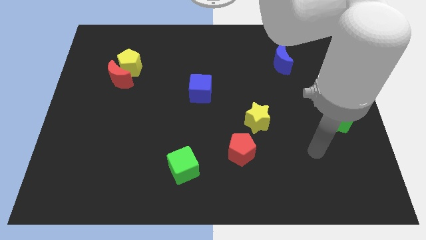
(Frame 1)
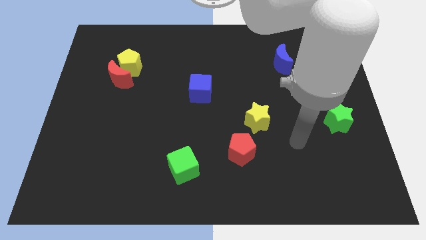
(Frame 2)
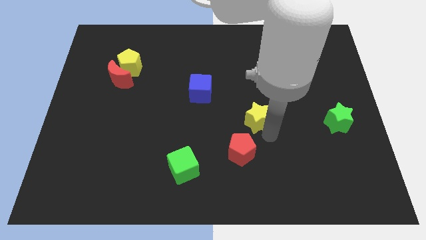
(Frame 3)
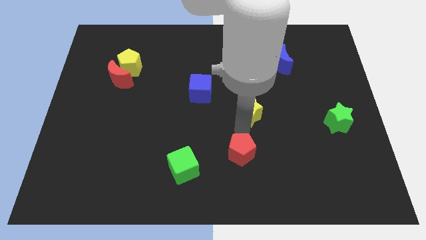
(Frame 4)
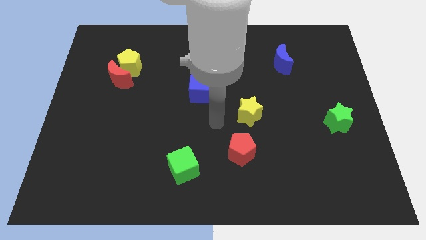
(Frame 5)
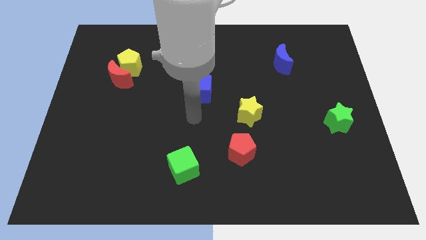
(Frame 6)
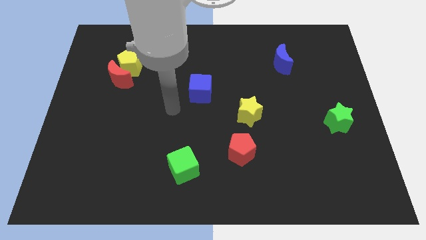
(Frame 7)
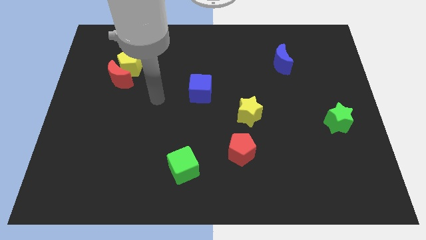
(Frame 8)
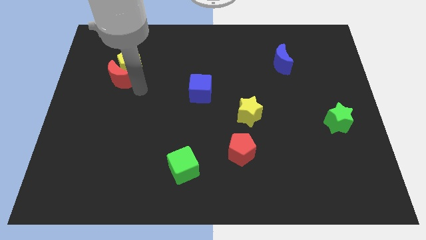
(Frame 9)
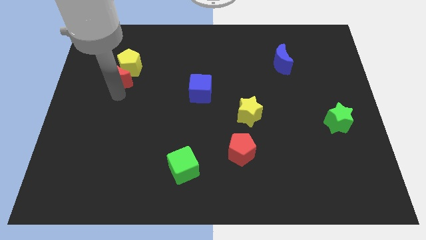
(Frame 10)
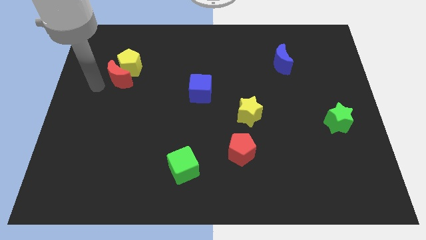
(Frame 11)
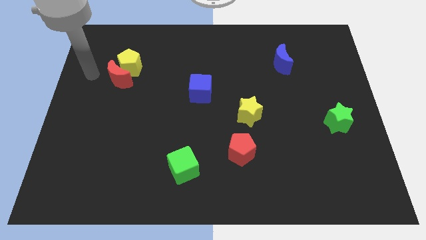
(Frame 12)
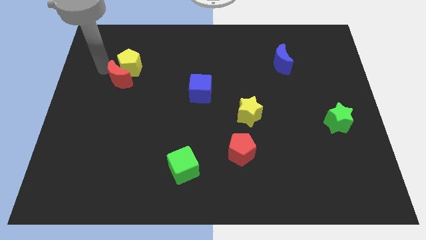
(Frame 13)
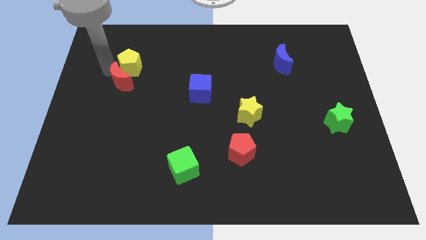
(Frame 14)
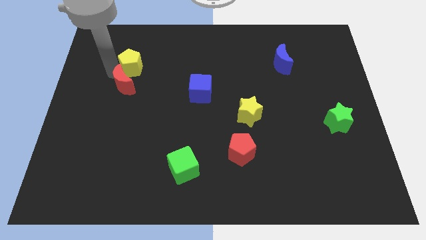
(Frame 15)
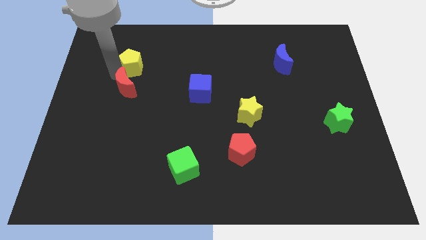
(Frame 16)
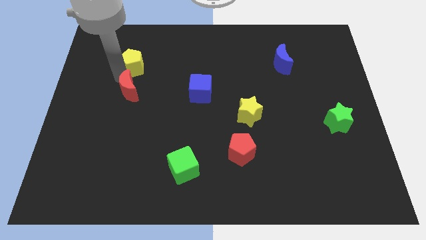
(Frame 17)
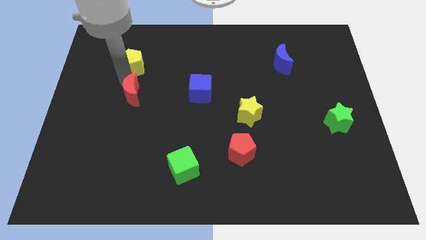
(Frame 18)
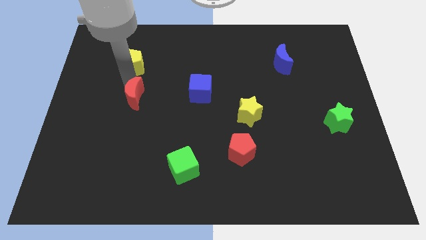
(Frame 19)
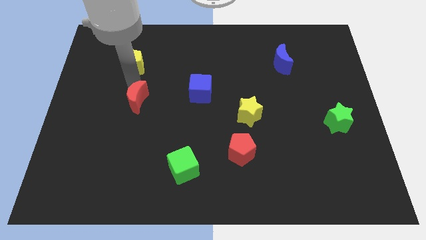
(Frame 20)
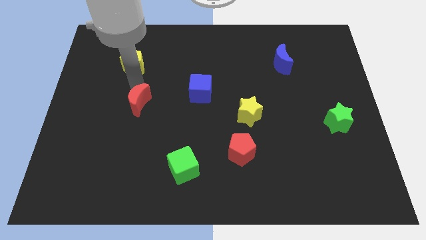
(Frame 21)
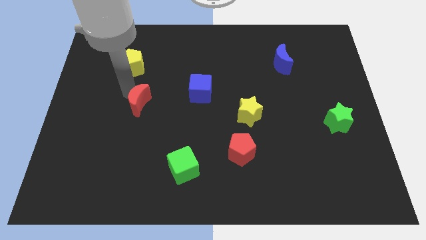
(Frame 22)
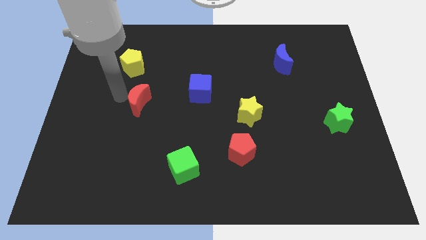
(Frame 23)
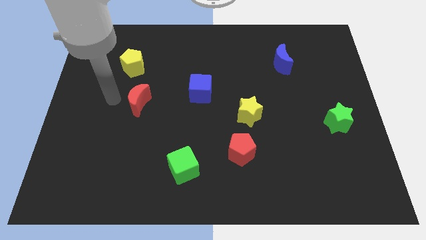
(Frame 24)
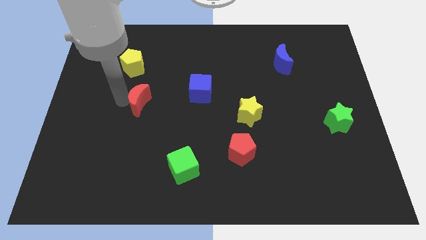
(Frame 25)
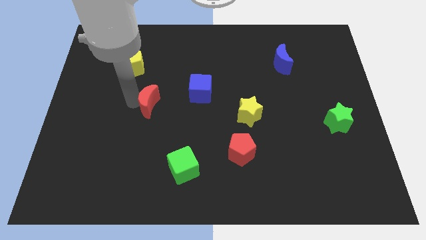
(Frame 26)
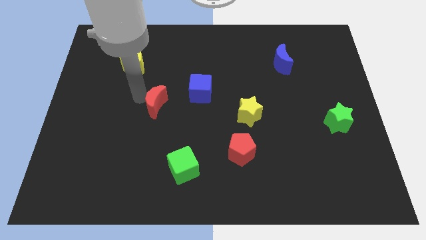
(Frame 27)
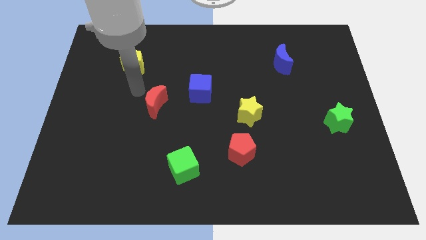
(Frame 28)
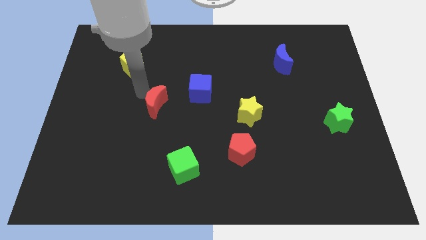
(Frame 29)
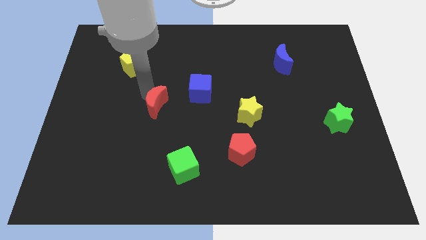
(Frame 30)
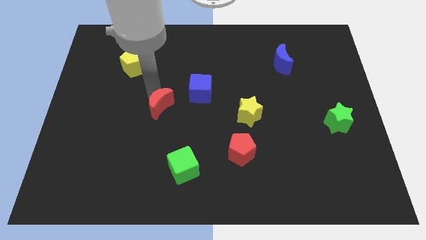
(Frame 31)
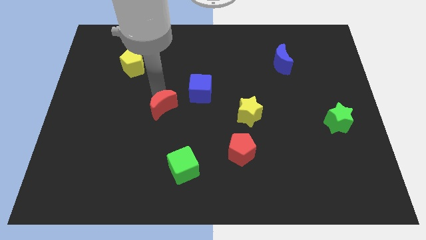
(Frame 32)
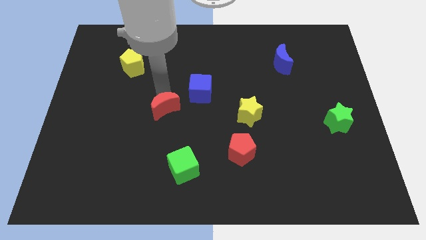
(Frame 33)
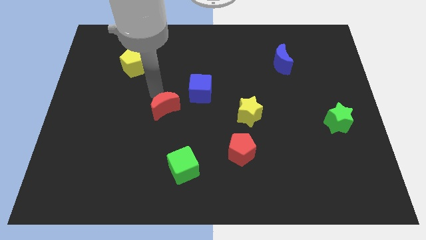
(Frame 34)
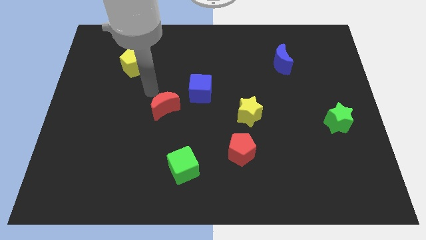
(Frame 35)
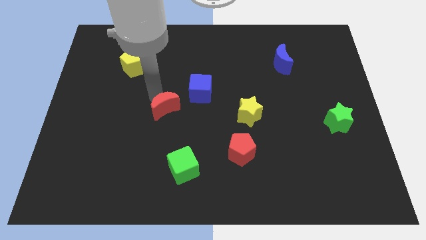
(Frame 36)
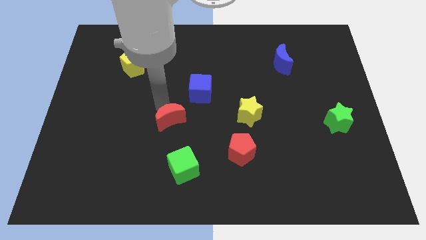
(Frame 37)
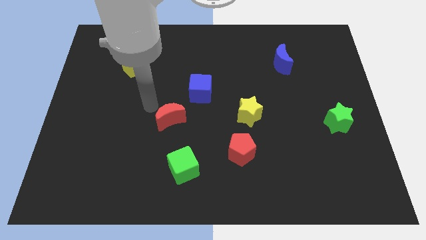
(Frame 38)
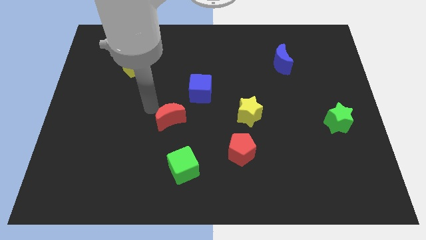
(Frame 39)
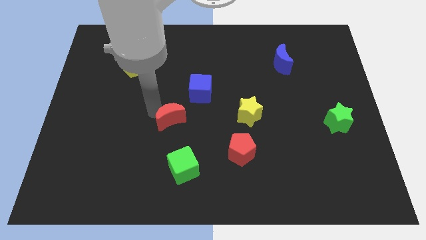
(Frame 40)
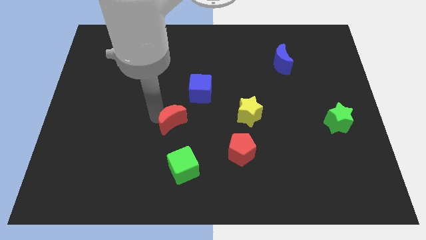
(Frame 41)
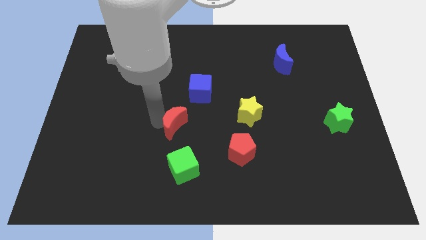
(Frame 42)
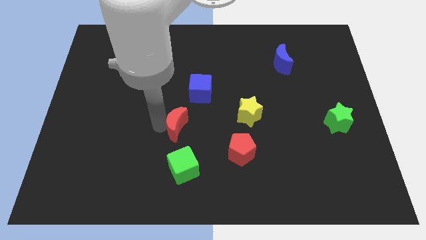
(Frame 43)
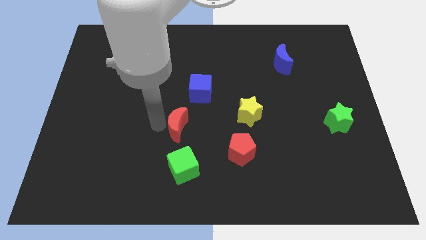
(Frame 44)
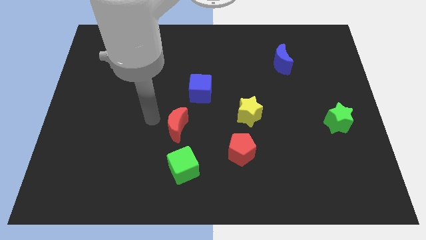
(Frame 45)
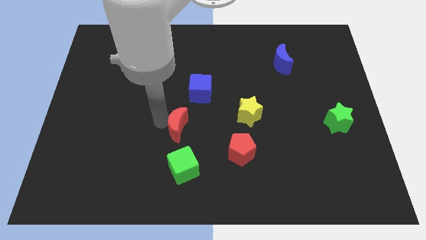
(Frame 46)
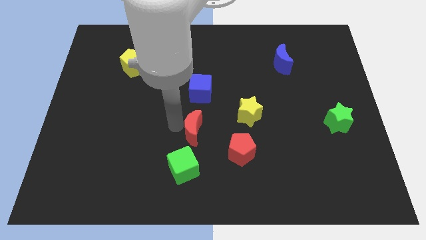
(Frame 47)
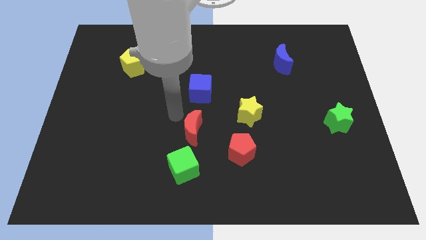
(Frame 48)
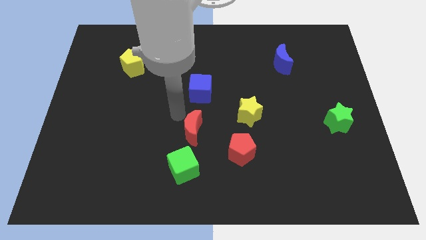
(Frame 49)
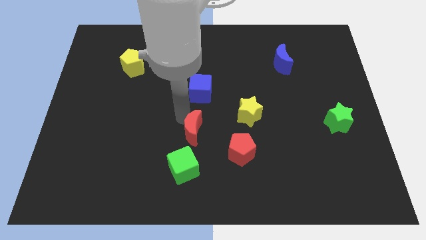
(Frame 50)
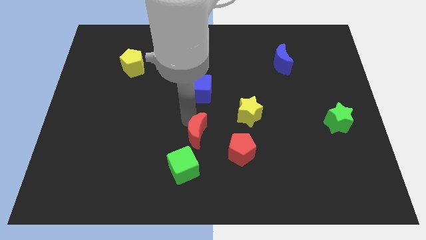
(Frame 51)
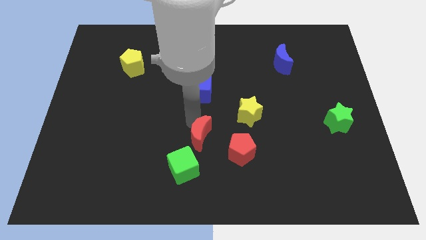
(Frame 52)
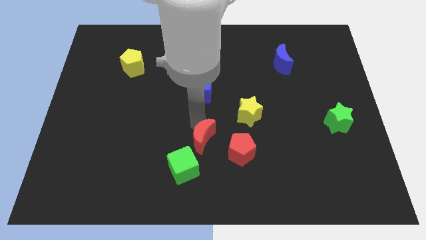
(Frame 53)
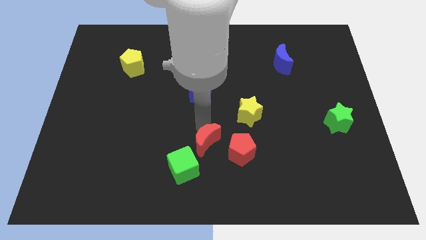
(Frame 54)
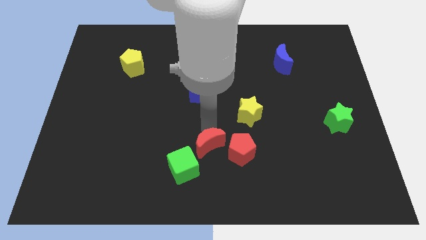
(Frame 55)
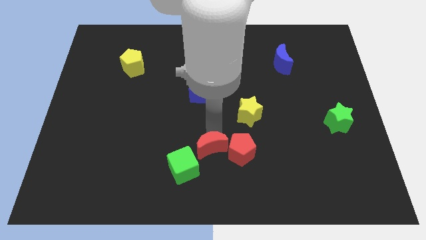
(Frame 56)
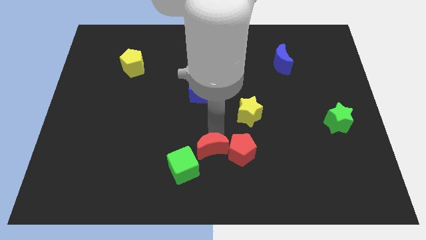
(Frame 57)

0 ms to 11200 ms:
move the red moon to the right of the green cube

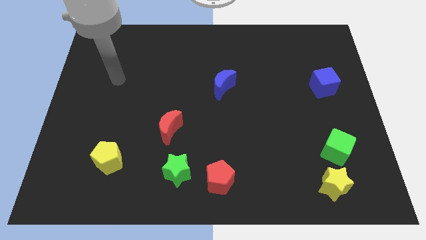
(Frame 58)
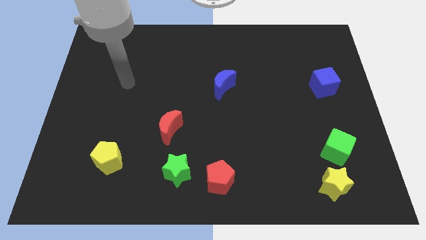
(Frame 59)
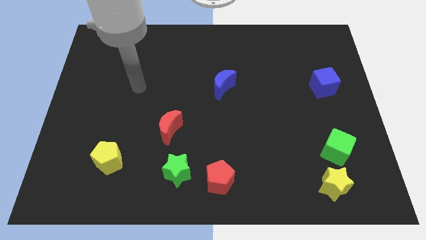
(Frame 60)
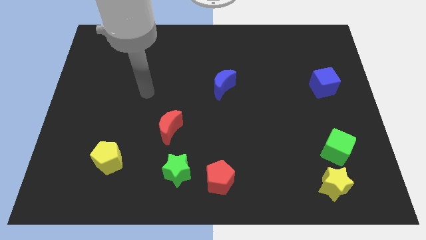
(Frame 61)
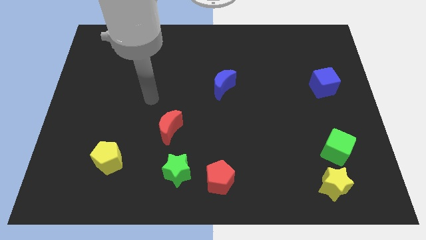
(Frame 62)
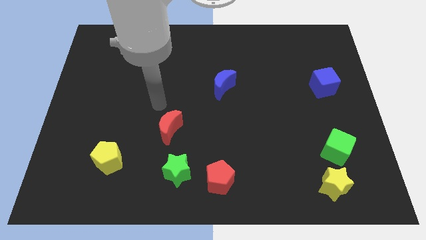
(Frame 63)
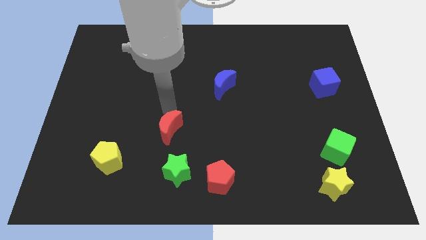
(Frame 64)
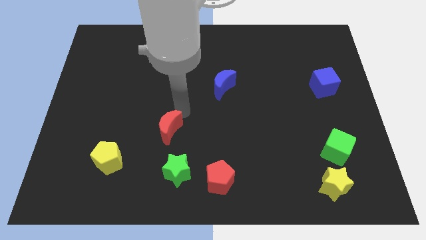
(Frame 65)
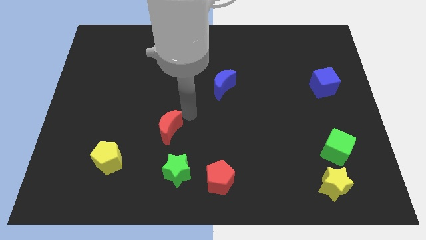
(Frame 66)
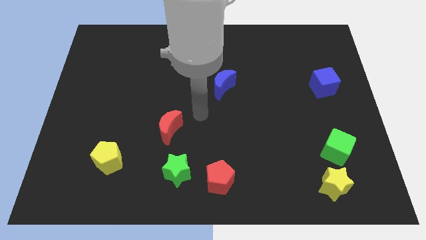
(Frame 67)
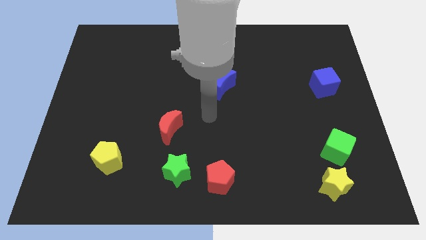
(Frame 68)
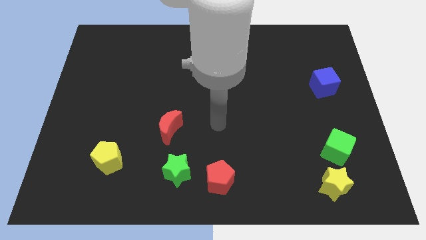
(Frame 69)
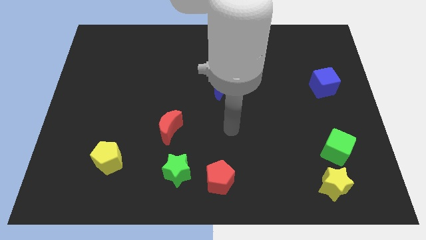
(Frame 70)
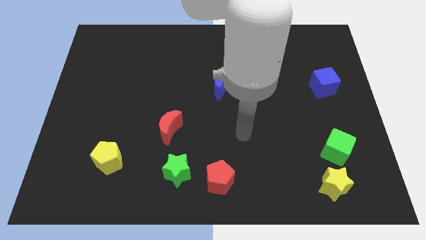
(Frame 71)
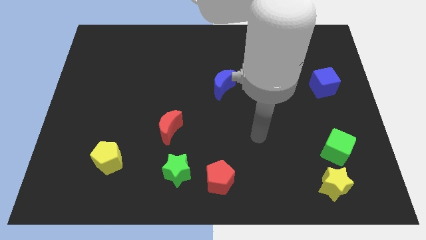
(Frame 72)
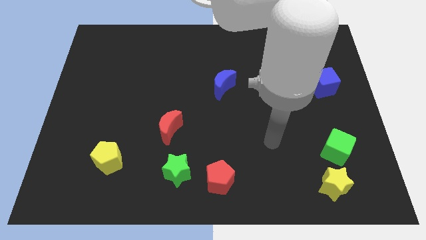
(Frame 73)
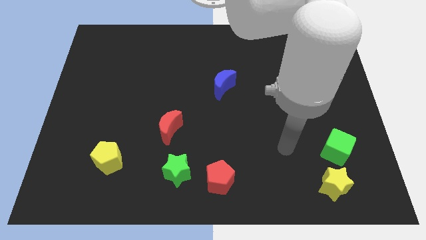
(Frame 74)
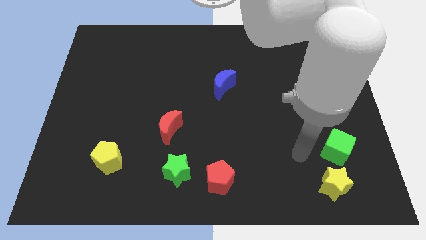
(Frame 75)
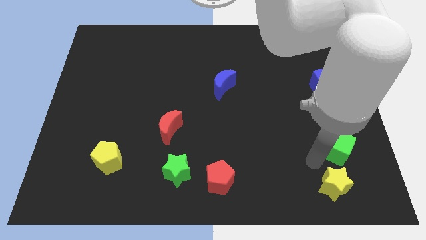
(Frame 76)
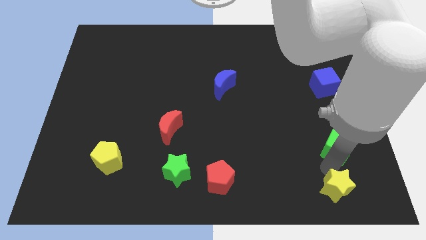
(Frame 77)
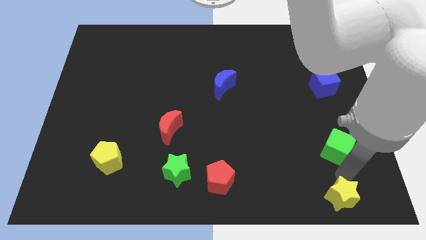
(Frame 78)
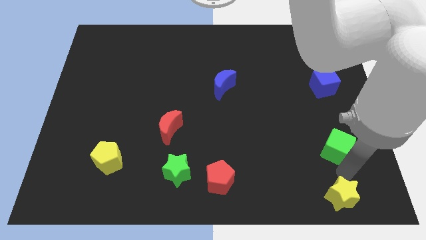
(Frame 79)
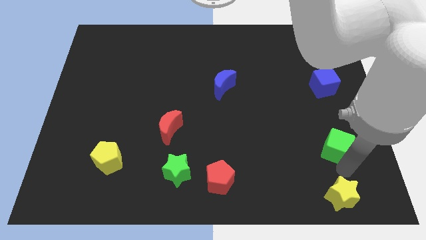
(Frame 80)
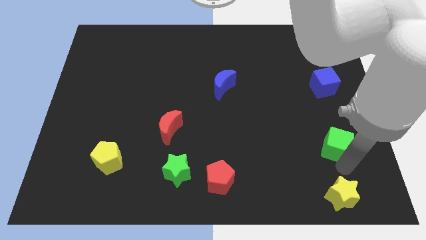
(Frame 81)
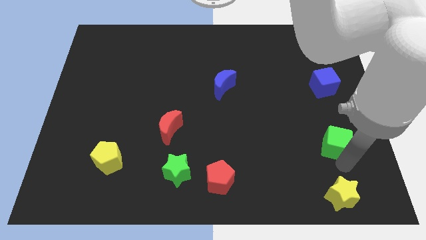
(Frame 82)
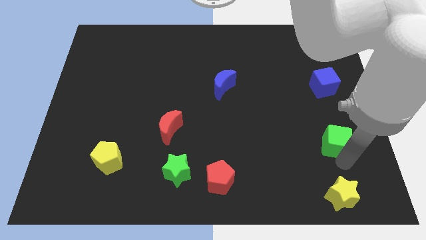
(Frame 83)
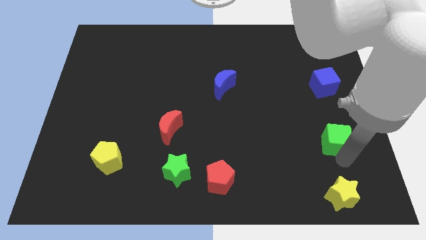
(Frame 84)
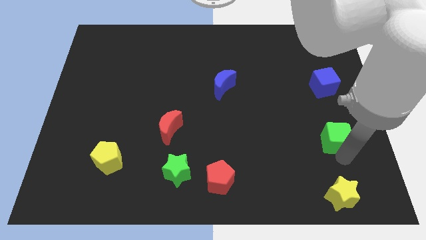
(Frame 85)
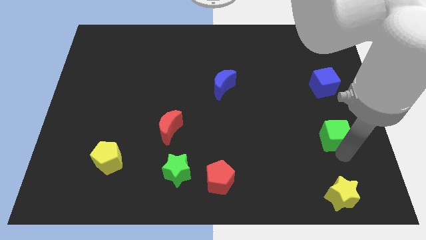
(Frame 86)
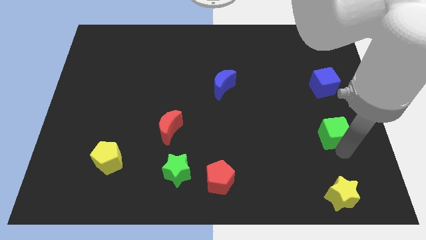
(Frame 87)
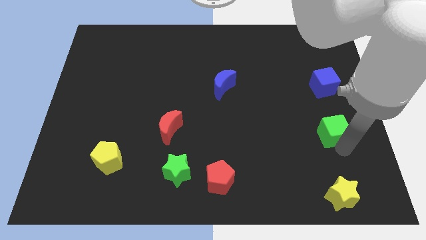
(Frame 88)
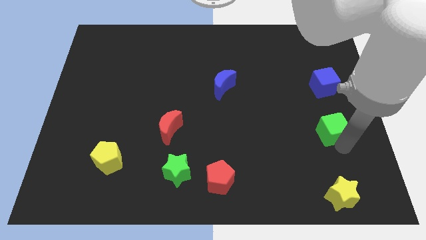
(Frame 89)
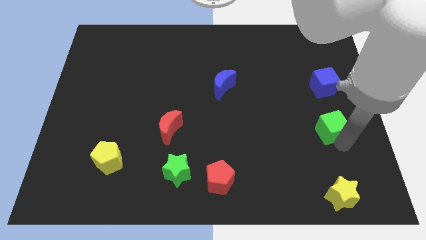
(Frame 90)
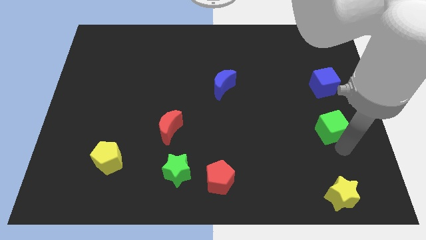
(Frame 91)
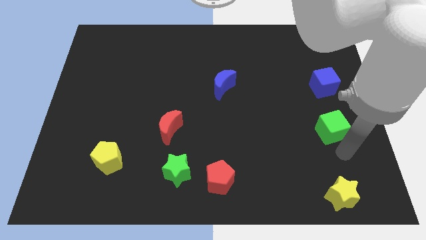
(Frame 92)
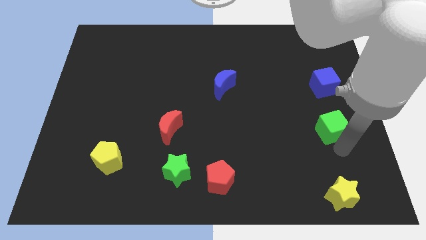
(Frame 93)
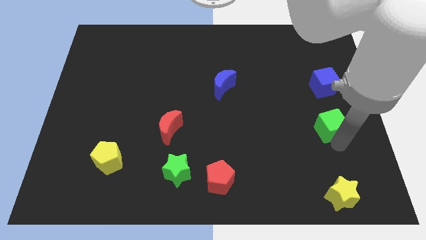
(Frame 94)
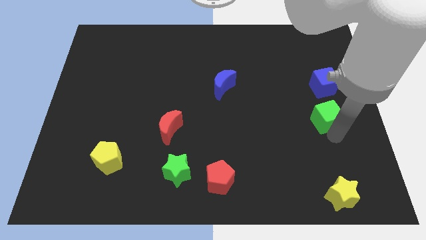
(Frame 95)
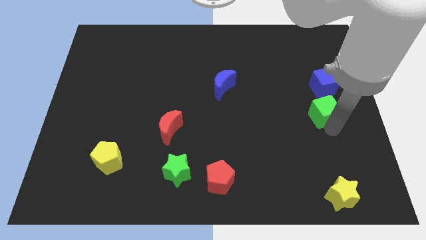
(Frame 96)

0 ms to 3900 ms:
move the green cube to the bottom left side of the blue cube
